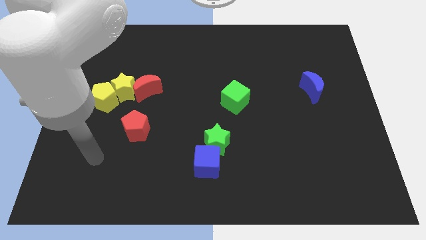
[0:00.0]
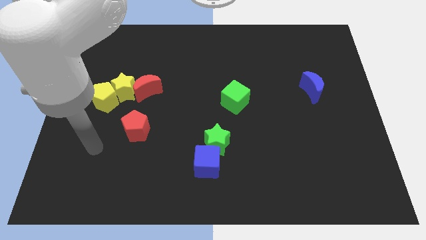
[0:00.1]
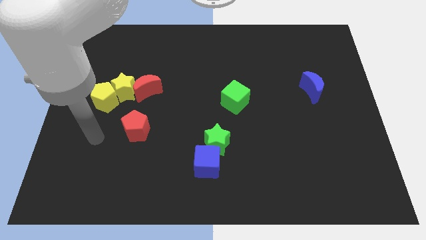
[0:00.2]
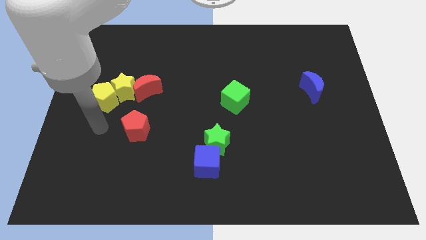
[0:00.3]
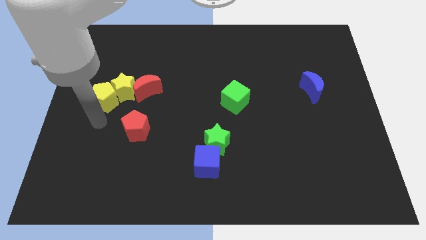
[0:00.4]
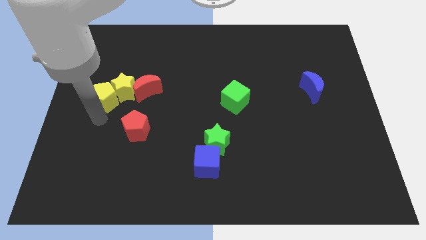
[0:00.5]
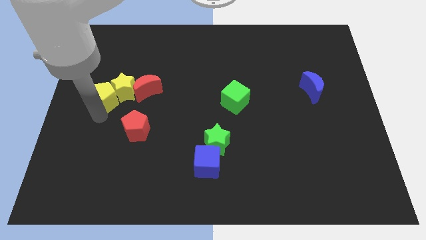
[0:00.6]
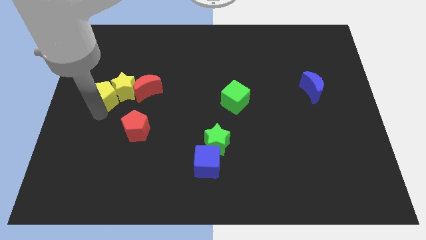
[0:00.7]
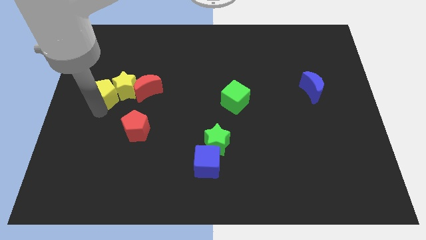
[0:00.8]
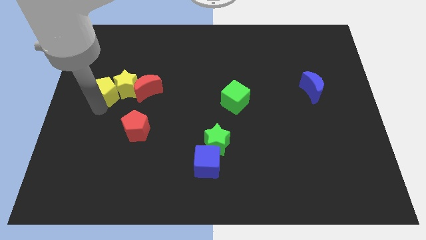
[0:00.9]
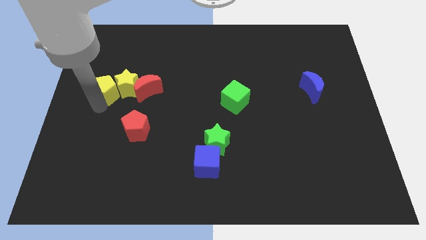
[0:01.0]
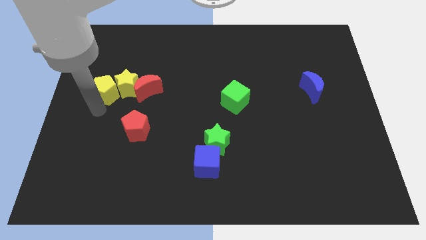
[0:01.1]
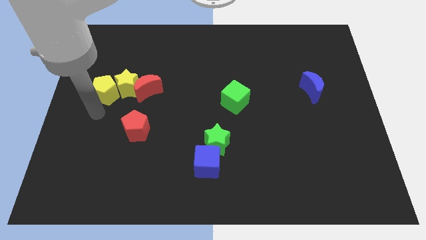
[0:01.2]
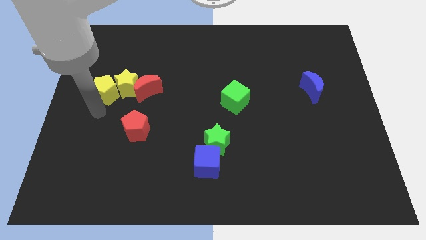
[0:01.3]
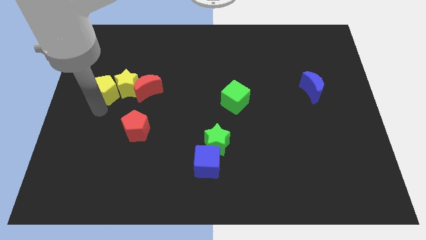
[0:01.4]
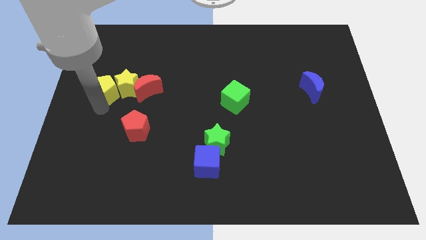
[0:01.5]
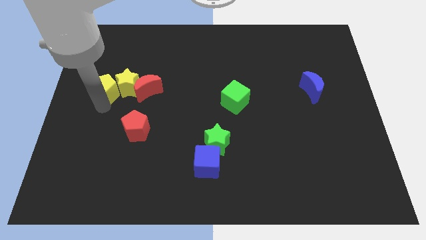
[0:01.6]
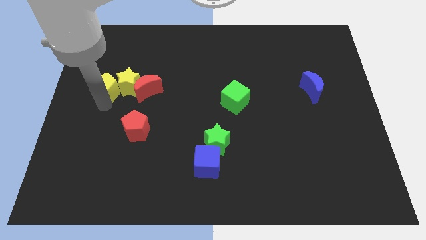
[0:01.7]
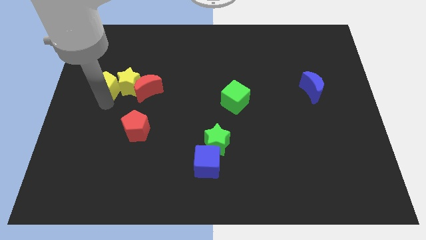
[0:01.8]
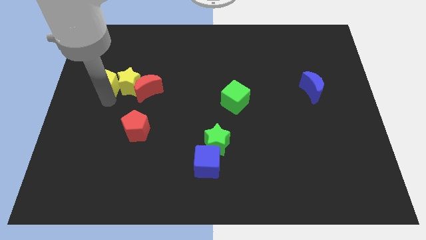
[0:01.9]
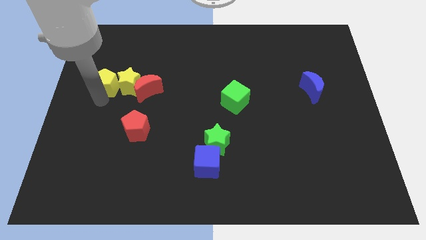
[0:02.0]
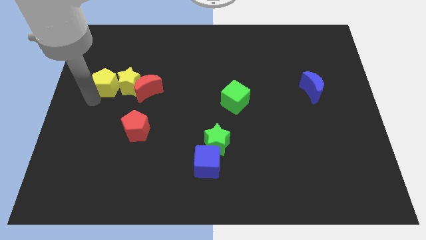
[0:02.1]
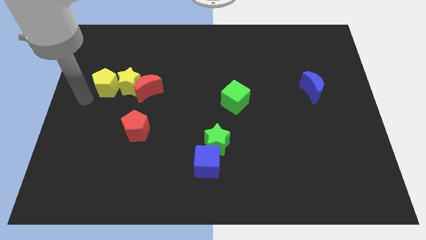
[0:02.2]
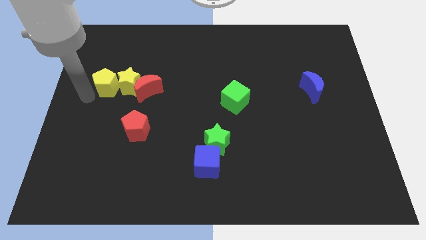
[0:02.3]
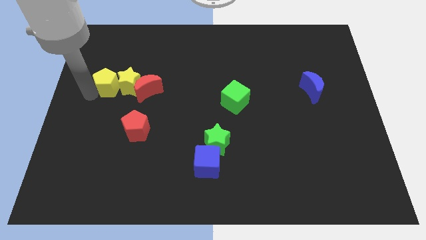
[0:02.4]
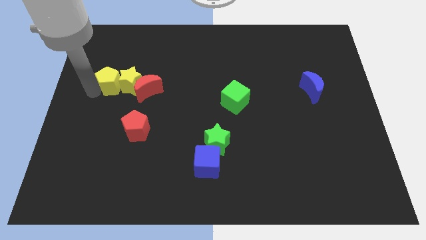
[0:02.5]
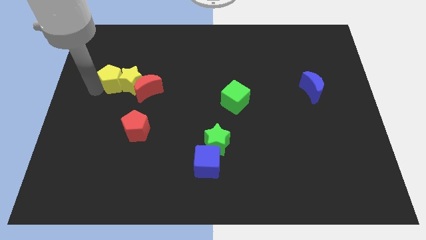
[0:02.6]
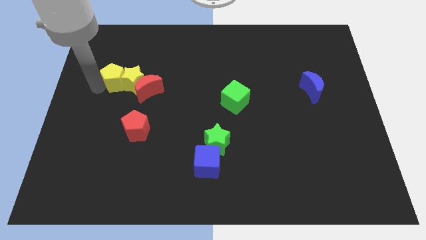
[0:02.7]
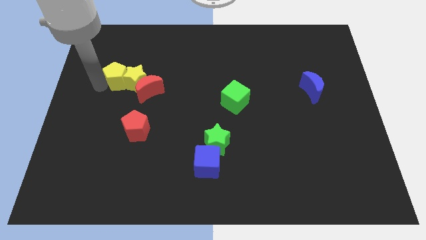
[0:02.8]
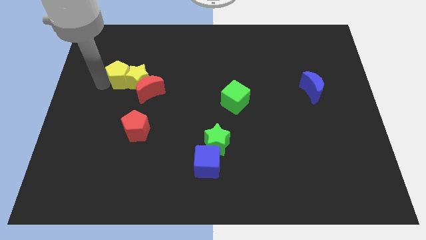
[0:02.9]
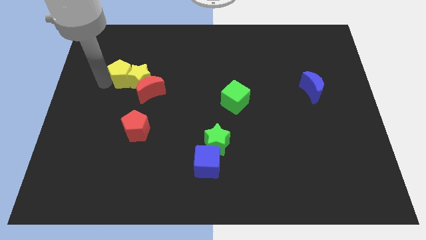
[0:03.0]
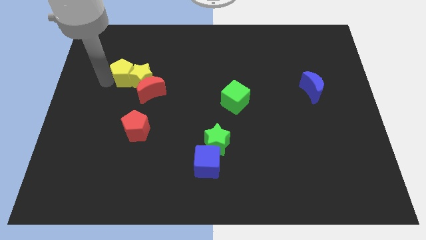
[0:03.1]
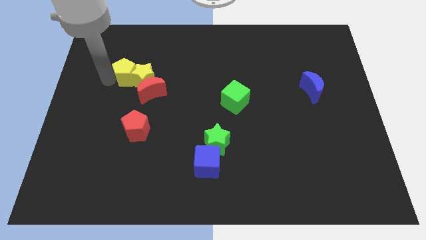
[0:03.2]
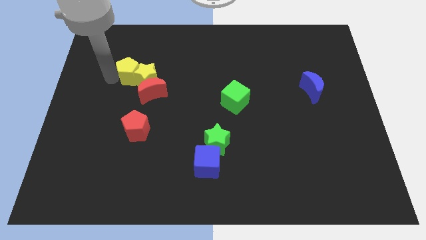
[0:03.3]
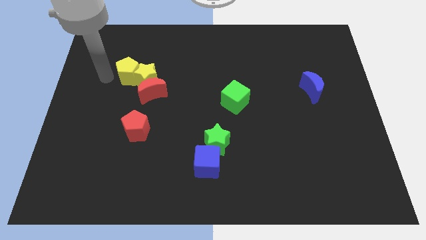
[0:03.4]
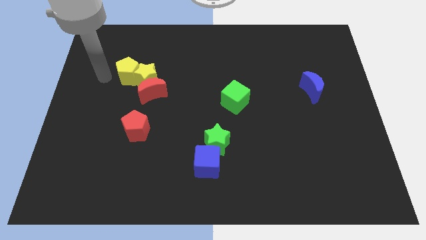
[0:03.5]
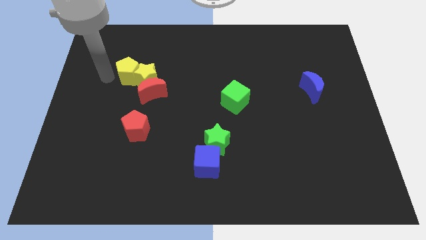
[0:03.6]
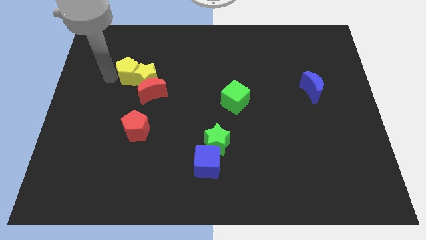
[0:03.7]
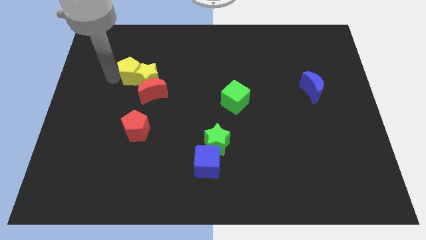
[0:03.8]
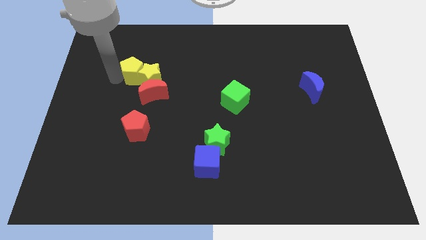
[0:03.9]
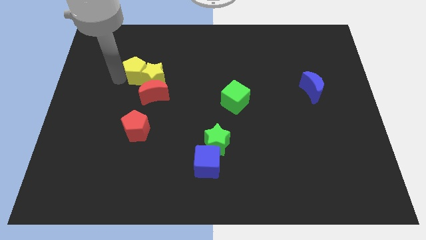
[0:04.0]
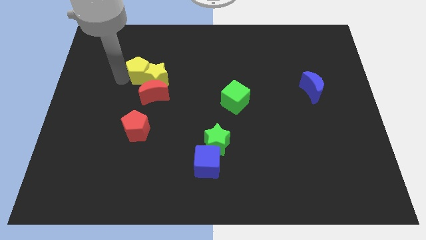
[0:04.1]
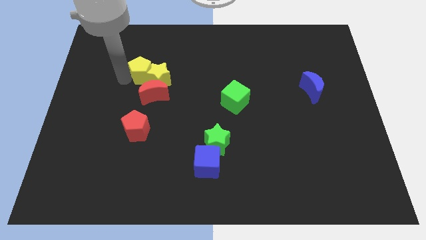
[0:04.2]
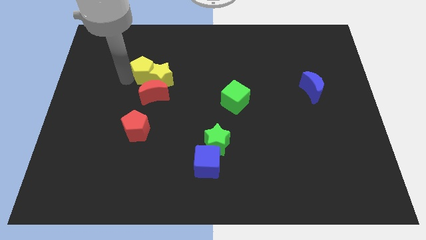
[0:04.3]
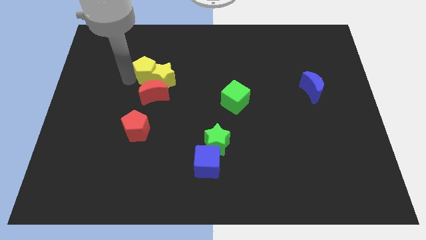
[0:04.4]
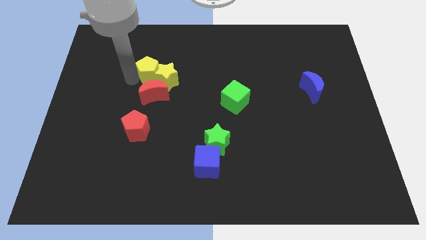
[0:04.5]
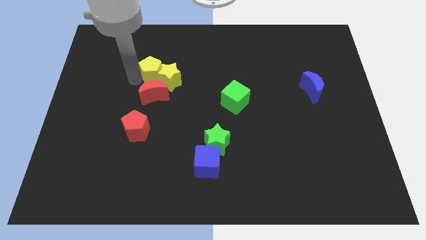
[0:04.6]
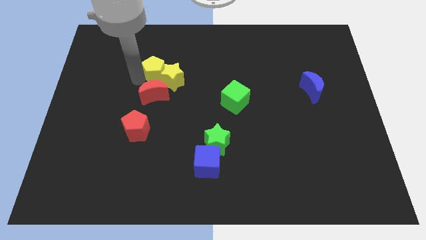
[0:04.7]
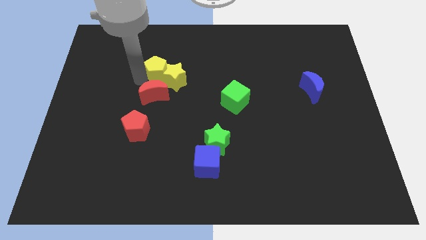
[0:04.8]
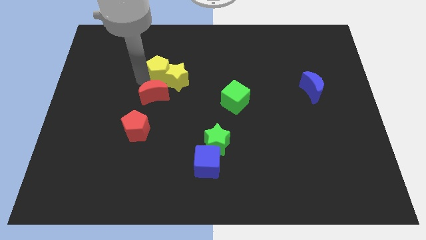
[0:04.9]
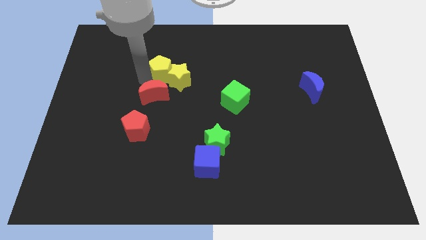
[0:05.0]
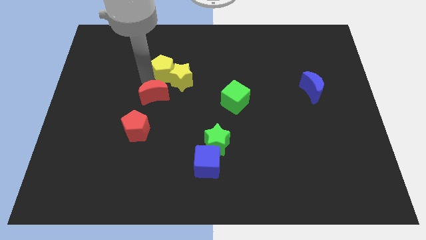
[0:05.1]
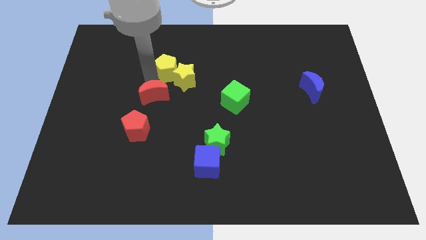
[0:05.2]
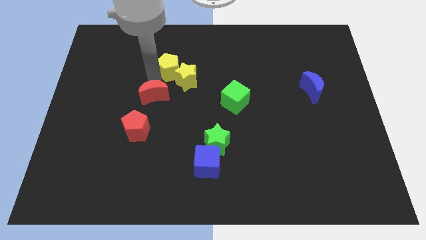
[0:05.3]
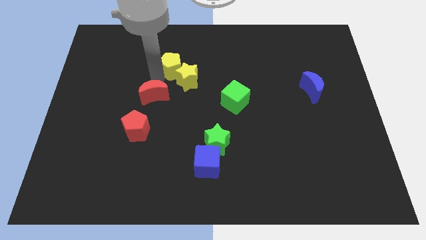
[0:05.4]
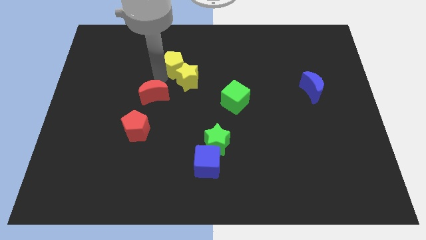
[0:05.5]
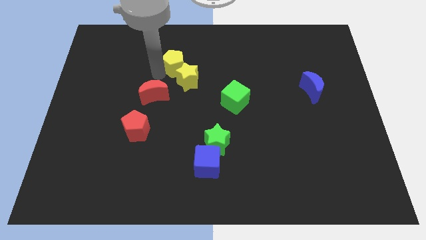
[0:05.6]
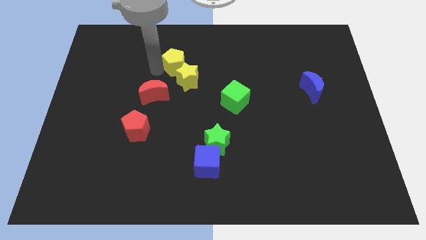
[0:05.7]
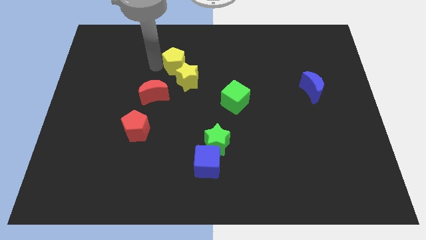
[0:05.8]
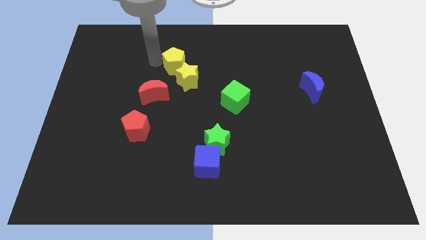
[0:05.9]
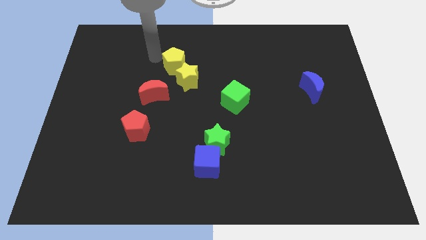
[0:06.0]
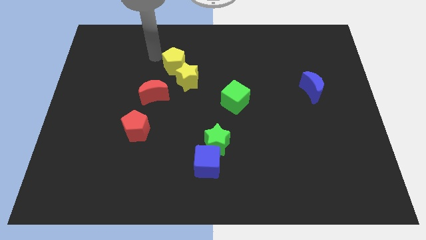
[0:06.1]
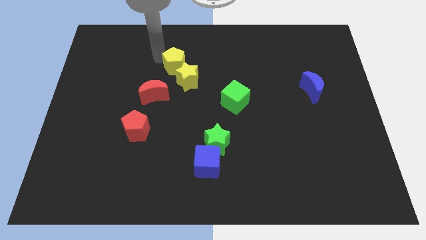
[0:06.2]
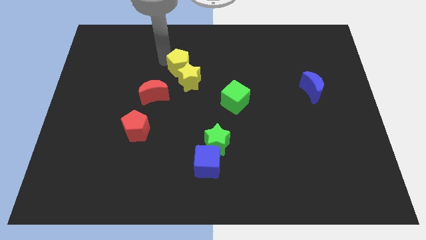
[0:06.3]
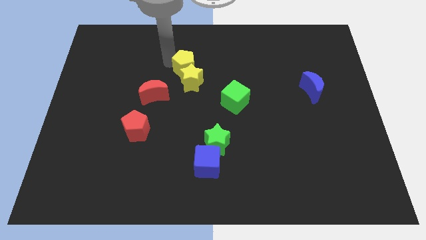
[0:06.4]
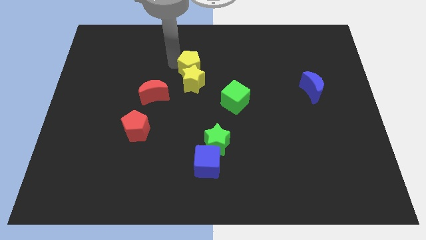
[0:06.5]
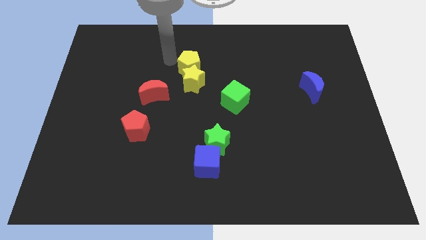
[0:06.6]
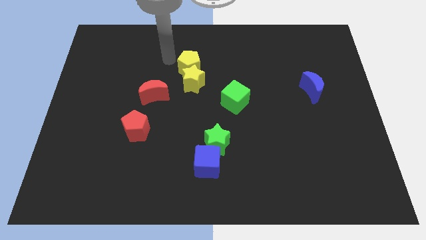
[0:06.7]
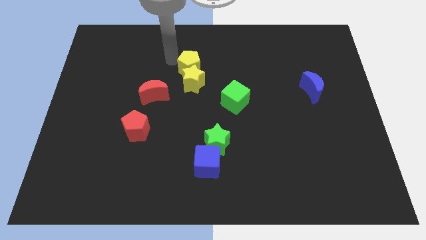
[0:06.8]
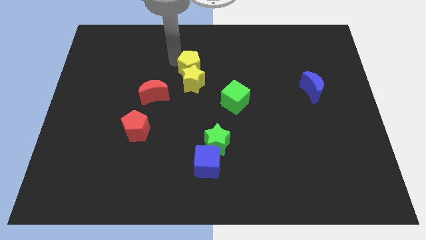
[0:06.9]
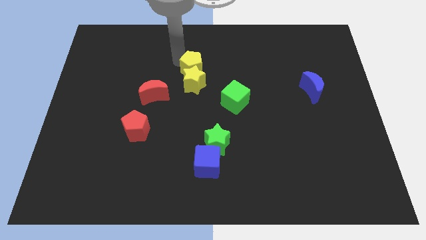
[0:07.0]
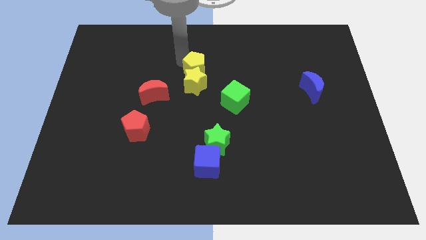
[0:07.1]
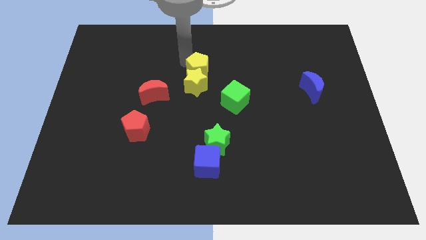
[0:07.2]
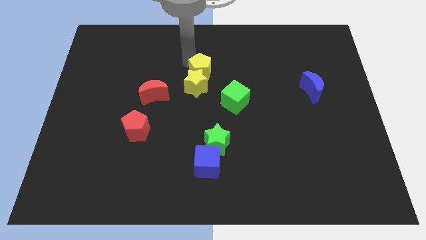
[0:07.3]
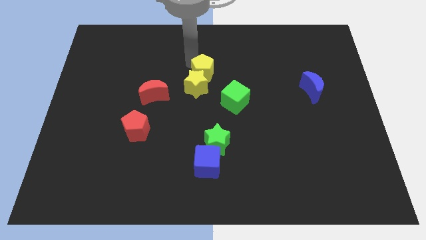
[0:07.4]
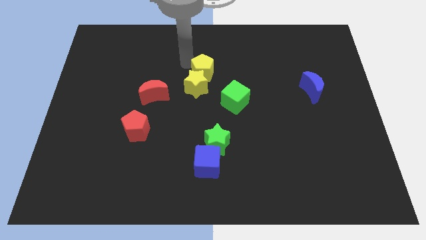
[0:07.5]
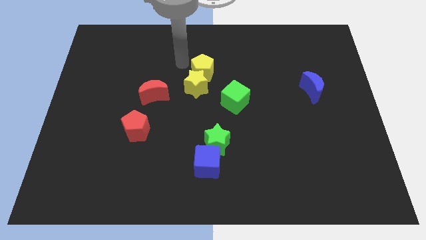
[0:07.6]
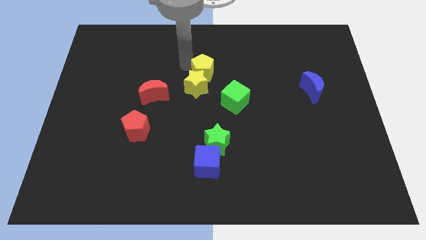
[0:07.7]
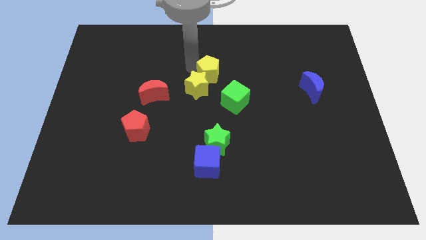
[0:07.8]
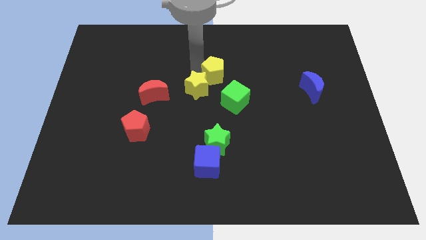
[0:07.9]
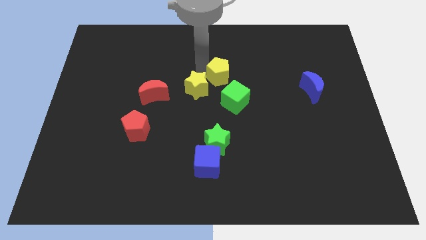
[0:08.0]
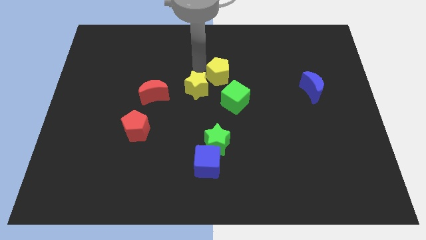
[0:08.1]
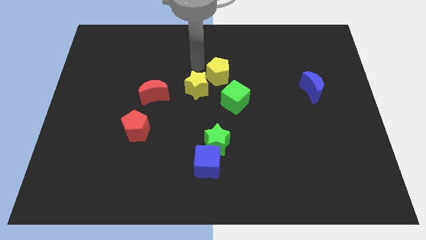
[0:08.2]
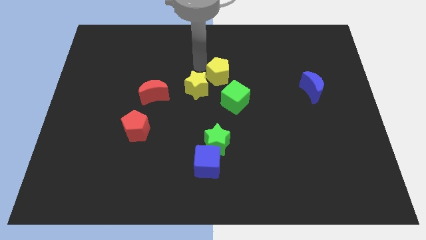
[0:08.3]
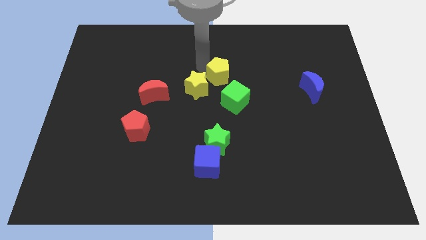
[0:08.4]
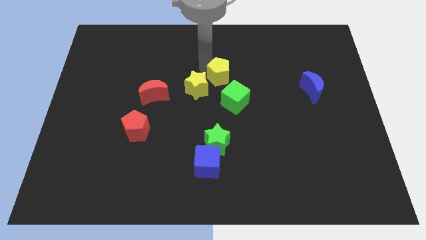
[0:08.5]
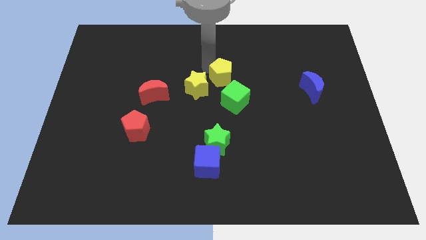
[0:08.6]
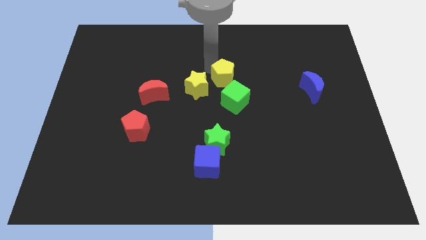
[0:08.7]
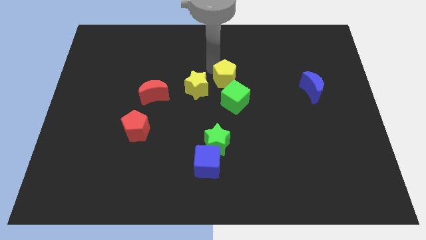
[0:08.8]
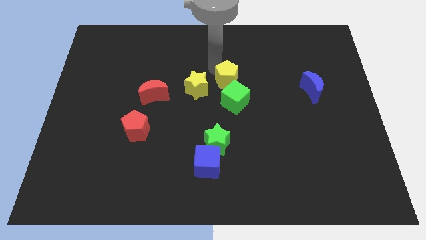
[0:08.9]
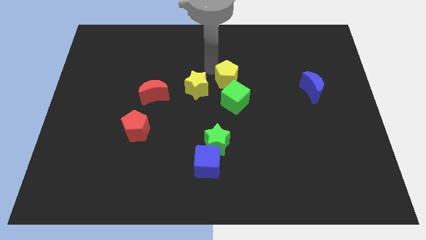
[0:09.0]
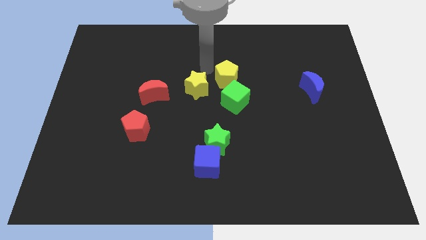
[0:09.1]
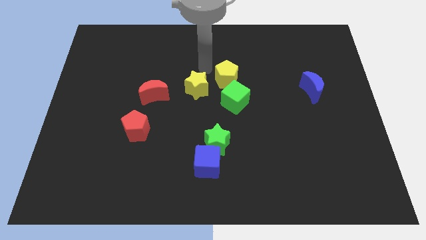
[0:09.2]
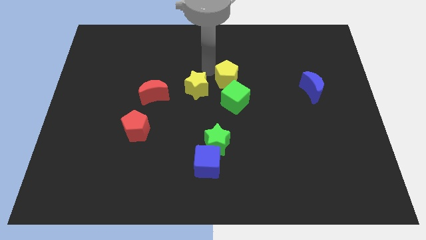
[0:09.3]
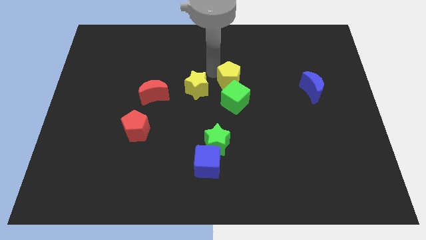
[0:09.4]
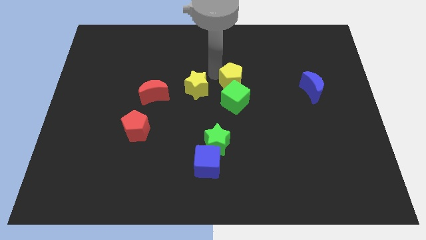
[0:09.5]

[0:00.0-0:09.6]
slide the yellow pentagon to the top right side of the green cube
